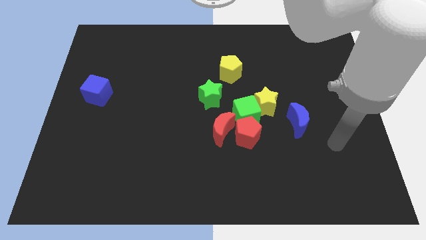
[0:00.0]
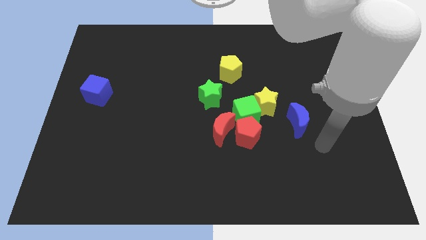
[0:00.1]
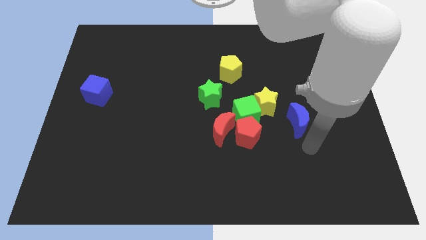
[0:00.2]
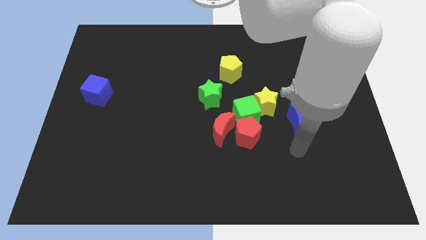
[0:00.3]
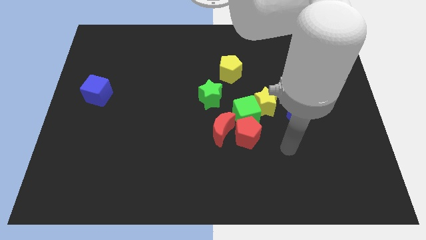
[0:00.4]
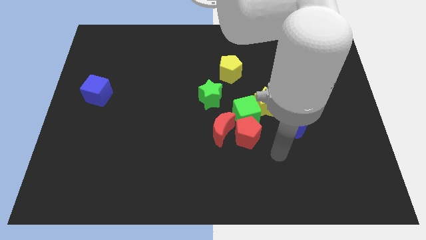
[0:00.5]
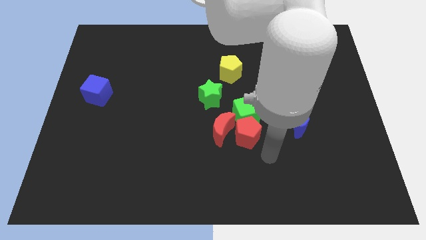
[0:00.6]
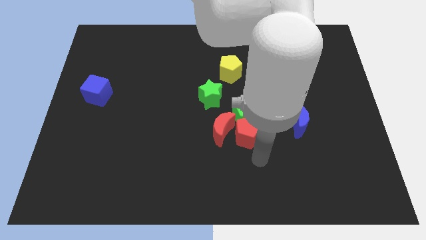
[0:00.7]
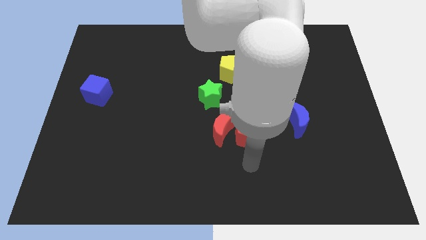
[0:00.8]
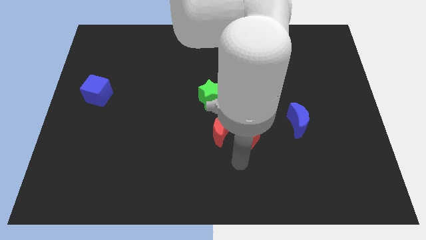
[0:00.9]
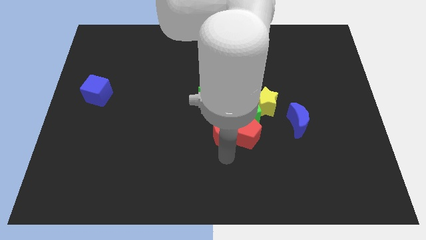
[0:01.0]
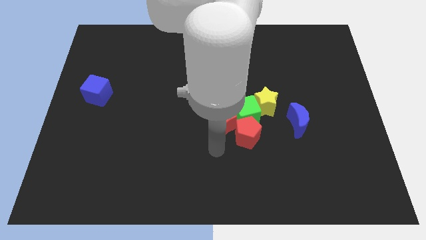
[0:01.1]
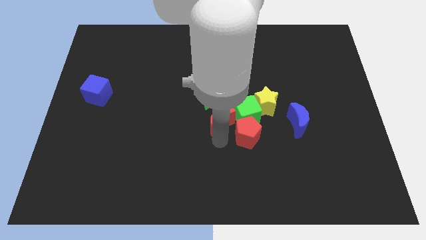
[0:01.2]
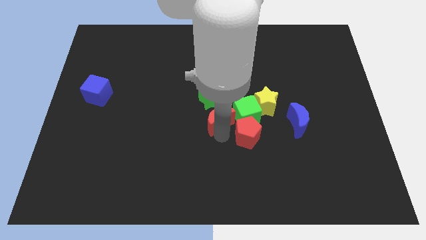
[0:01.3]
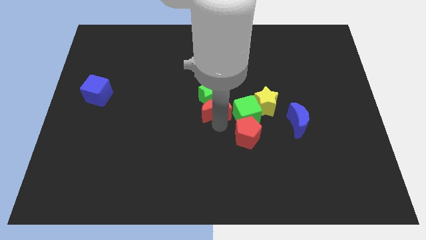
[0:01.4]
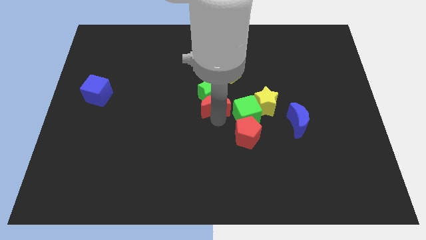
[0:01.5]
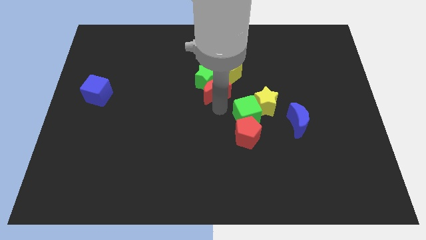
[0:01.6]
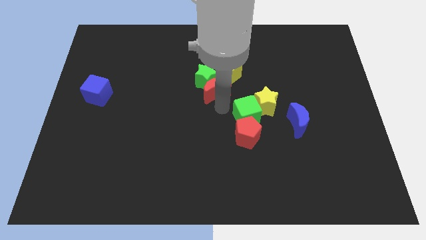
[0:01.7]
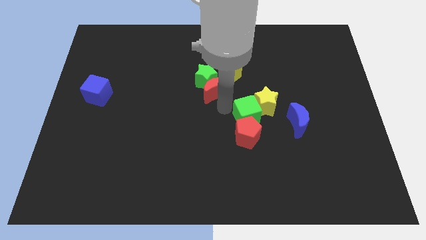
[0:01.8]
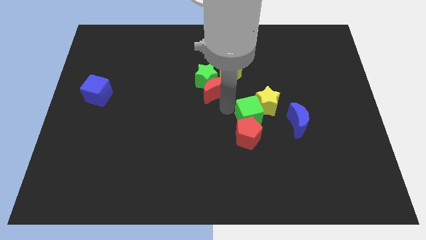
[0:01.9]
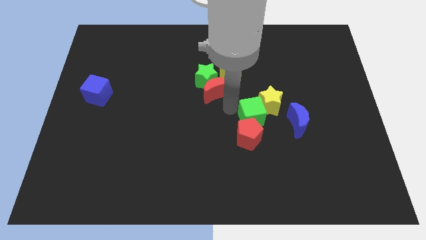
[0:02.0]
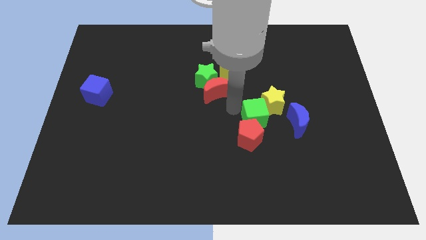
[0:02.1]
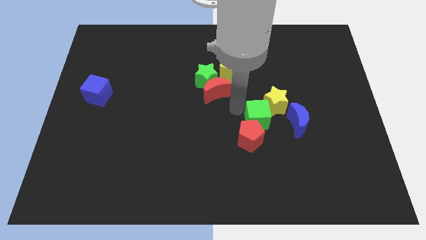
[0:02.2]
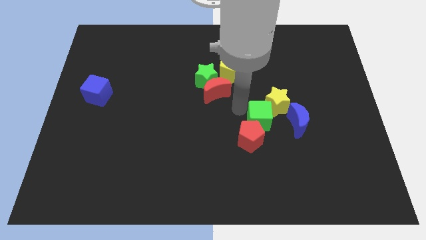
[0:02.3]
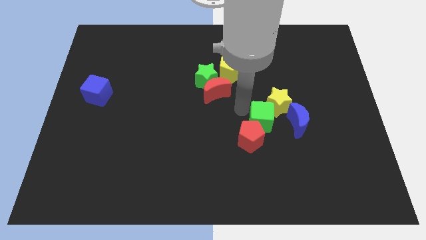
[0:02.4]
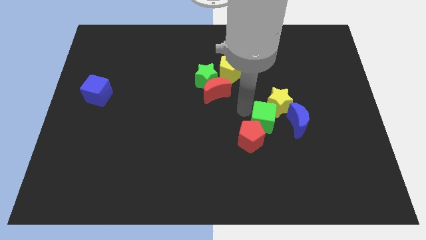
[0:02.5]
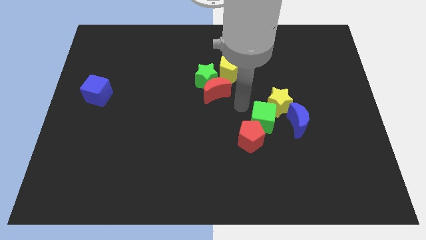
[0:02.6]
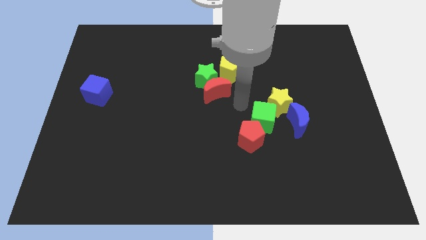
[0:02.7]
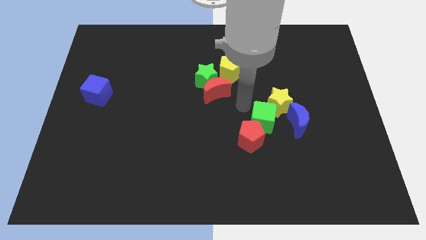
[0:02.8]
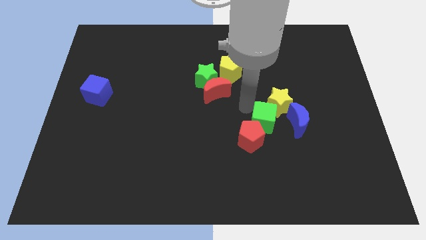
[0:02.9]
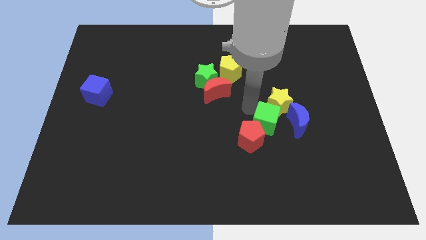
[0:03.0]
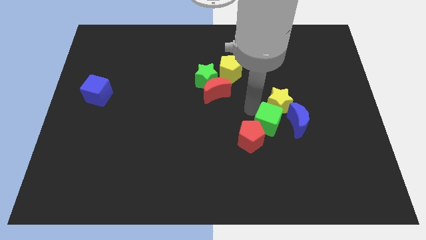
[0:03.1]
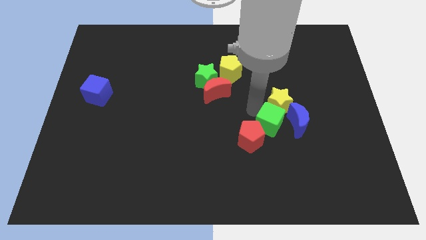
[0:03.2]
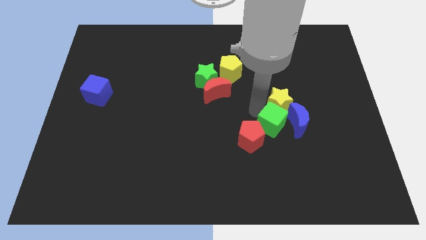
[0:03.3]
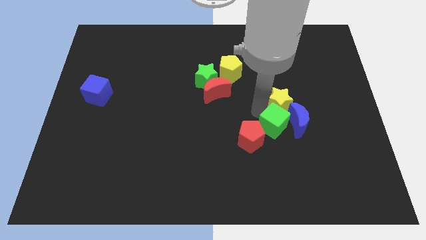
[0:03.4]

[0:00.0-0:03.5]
move the green cube away from the group of blocks

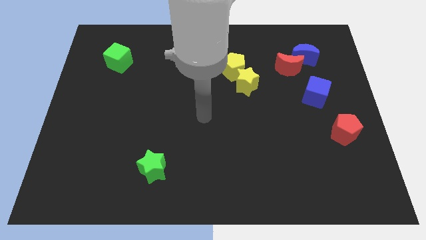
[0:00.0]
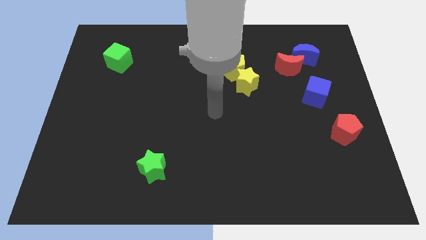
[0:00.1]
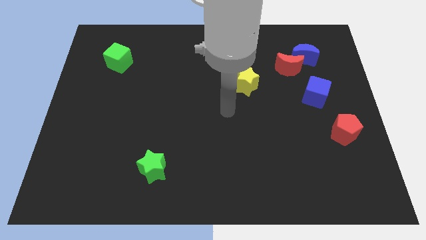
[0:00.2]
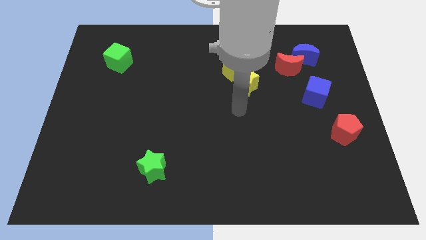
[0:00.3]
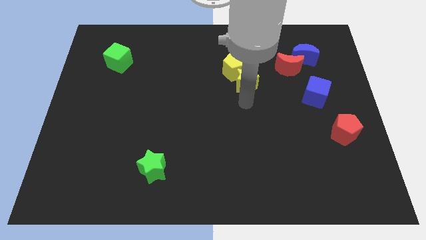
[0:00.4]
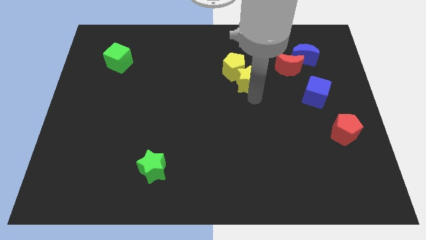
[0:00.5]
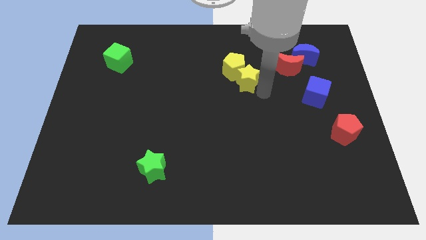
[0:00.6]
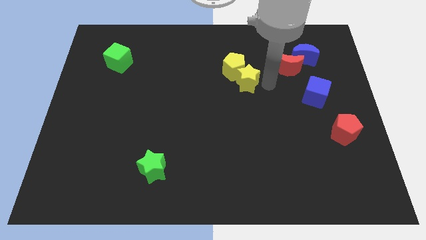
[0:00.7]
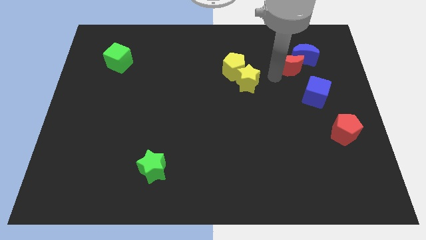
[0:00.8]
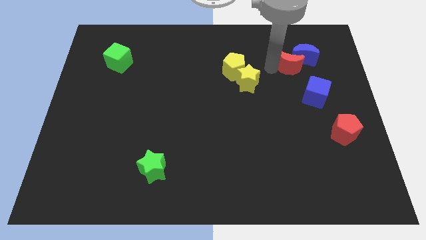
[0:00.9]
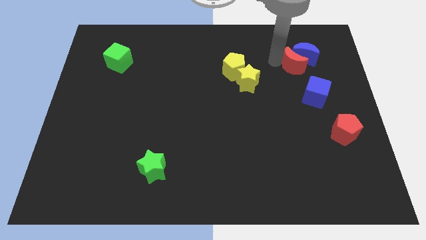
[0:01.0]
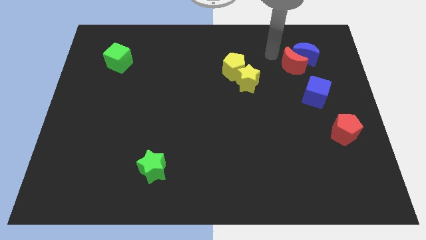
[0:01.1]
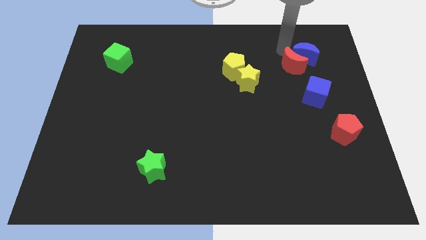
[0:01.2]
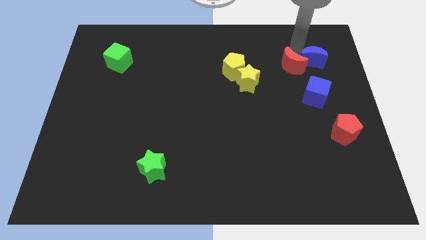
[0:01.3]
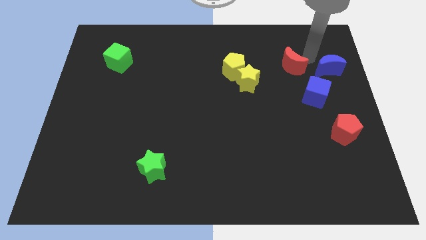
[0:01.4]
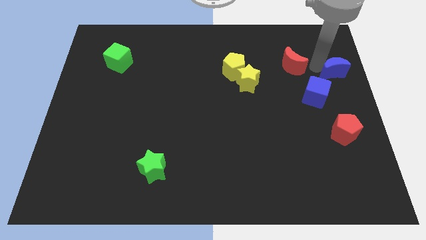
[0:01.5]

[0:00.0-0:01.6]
separate the red moon from the blue moon

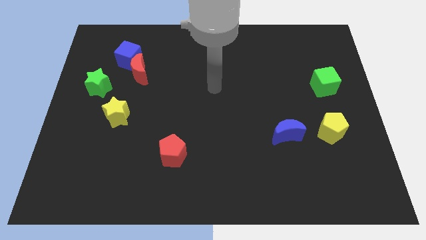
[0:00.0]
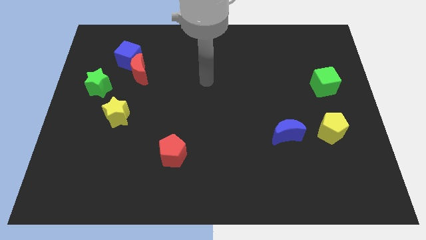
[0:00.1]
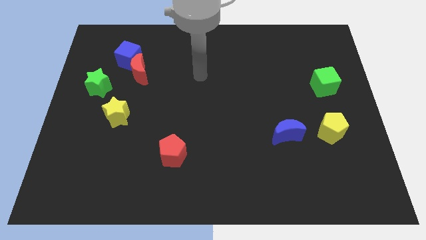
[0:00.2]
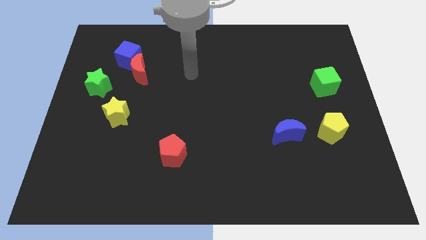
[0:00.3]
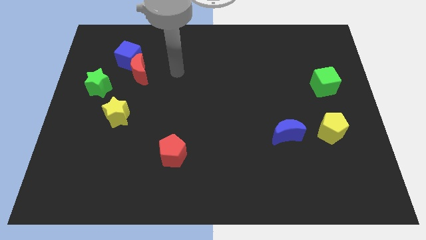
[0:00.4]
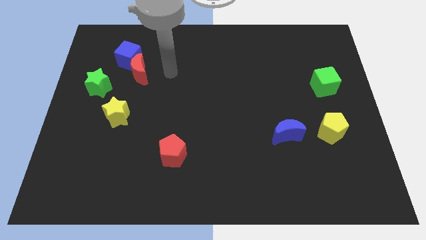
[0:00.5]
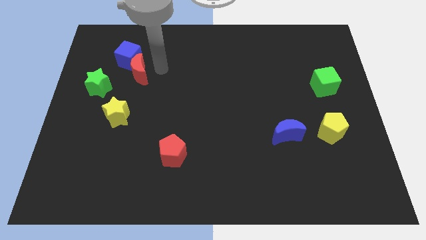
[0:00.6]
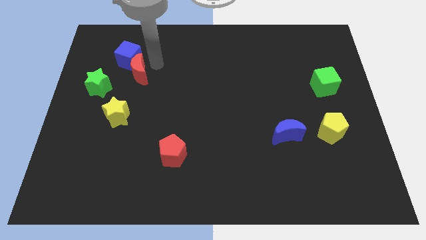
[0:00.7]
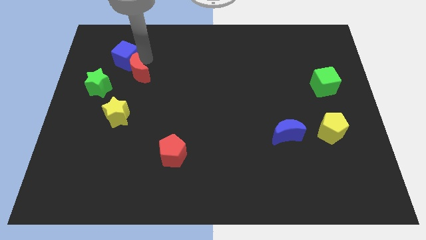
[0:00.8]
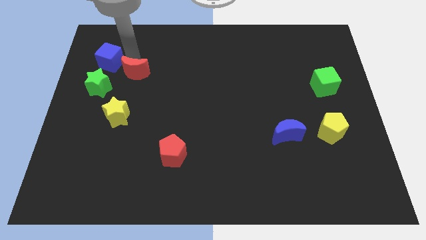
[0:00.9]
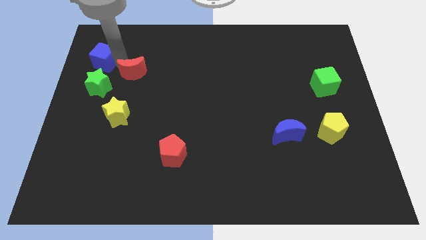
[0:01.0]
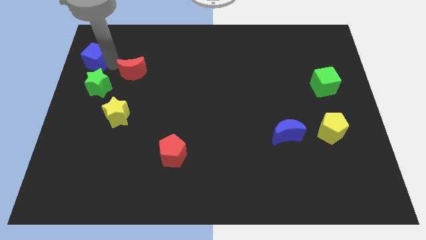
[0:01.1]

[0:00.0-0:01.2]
separate the red moon from the blue cube

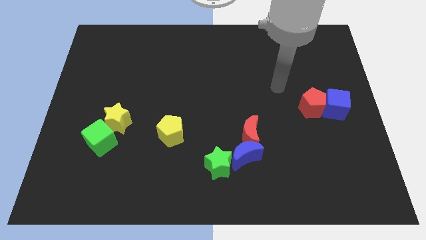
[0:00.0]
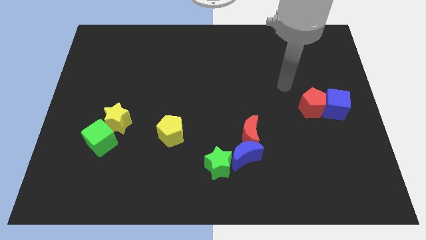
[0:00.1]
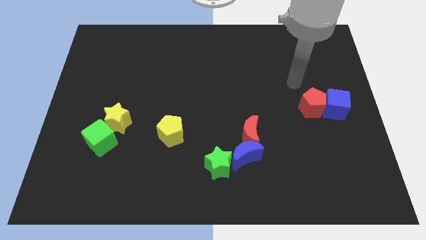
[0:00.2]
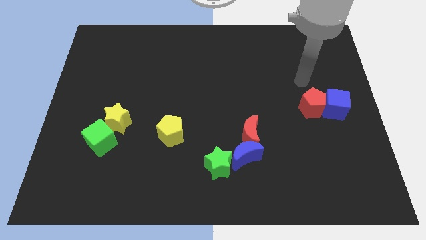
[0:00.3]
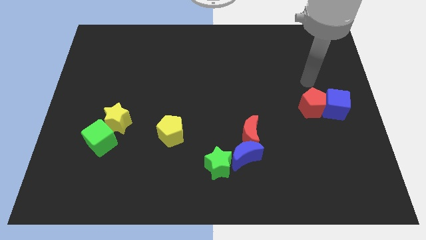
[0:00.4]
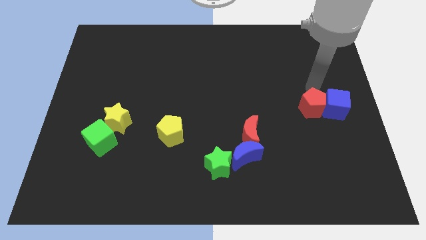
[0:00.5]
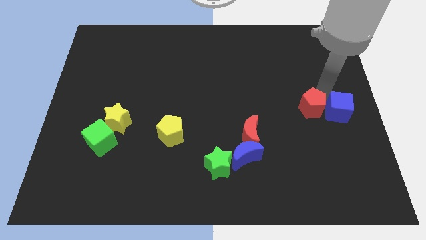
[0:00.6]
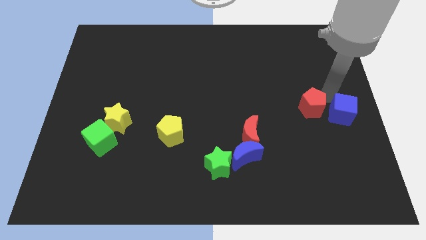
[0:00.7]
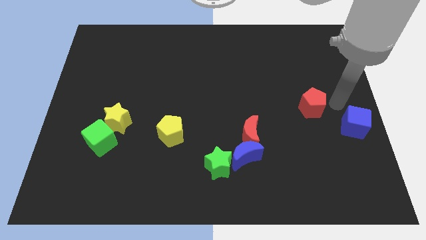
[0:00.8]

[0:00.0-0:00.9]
move the red pentagon away from the blue cube

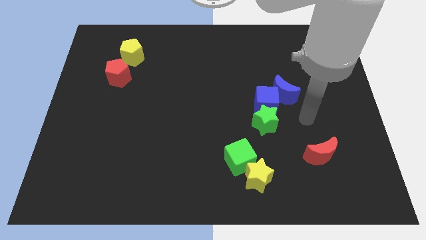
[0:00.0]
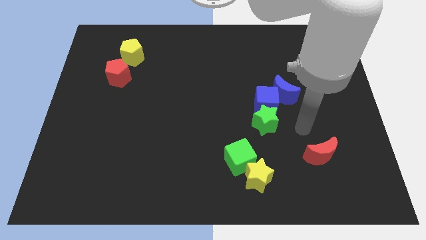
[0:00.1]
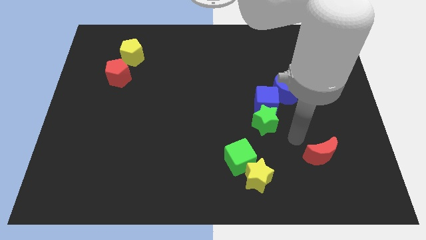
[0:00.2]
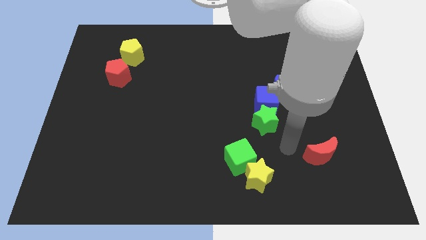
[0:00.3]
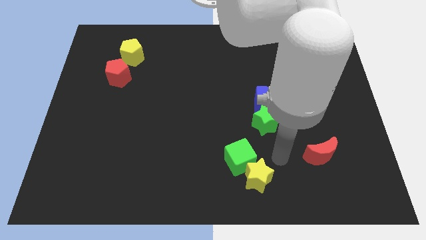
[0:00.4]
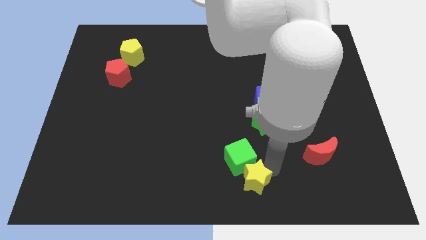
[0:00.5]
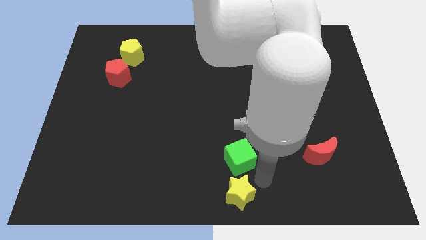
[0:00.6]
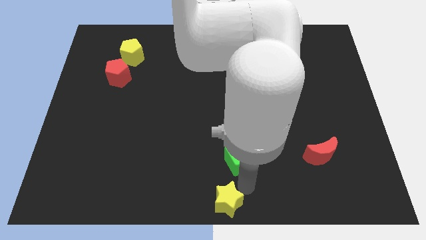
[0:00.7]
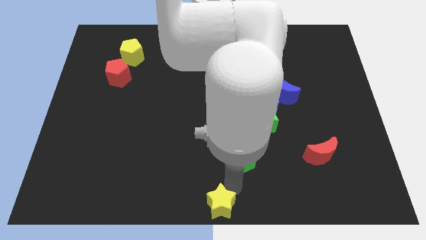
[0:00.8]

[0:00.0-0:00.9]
pull the green cube apart from the yellow star

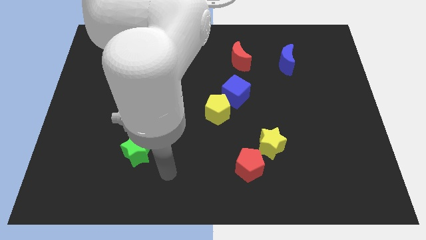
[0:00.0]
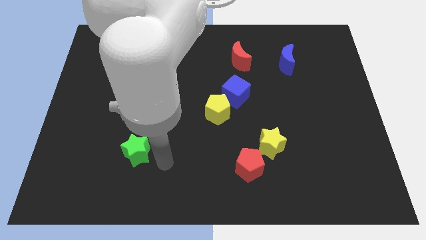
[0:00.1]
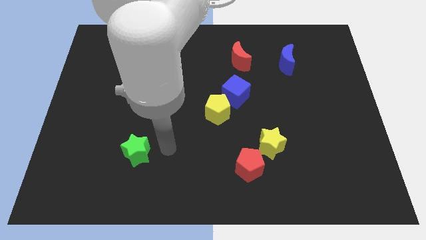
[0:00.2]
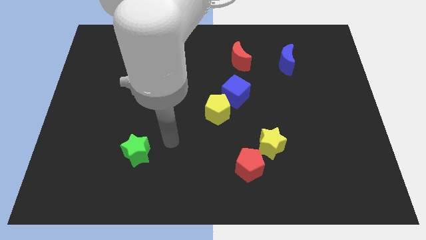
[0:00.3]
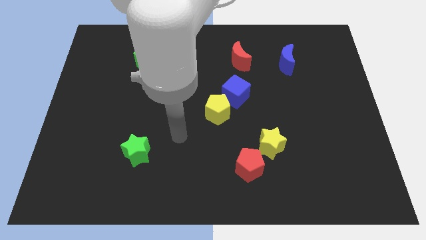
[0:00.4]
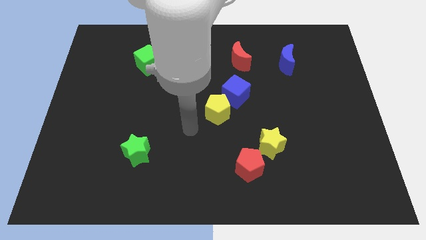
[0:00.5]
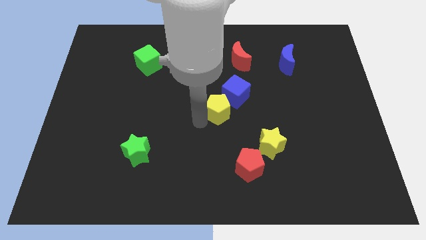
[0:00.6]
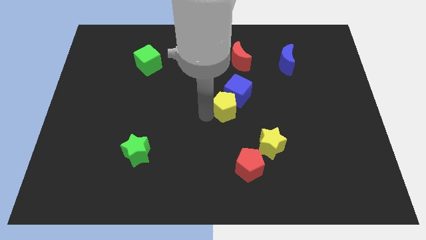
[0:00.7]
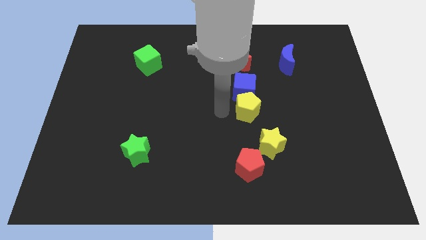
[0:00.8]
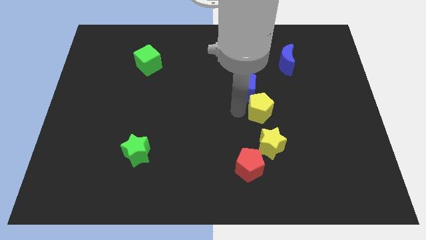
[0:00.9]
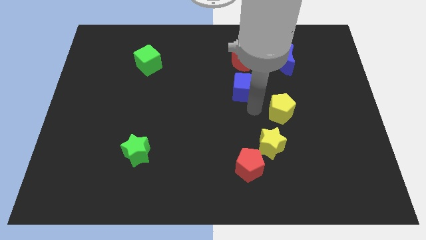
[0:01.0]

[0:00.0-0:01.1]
pull the blue cube apart from the yellow pentagon

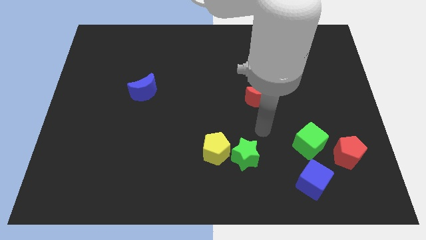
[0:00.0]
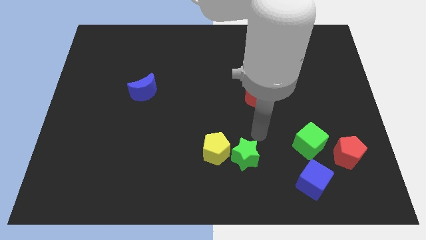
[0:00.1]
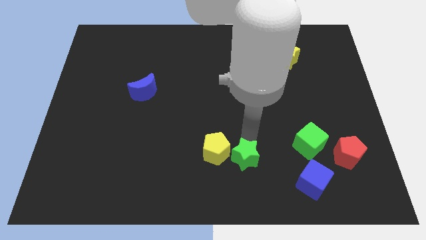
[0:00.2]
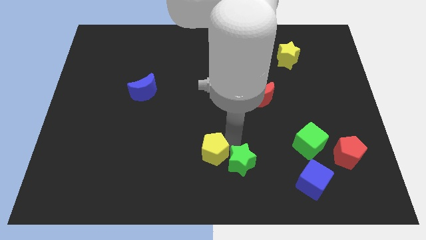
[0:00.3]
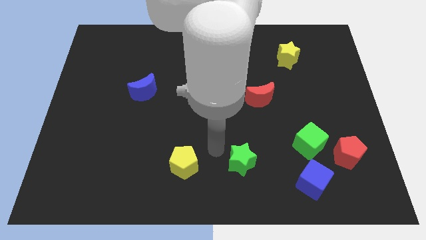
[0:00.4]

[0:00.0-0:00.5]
separate the green star from the yellow pentagon
